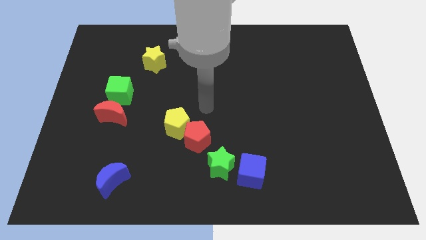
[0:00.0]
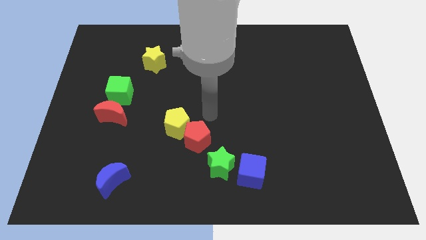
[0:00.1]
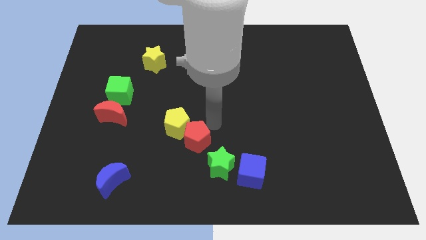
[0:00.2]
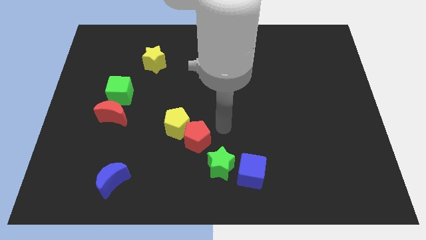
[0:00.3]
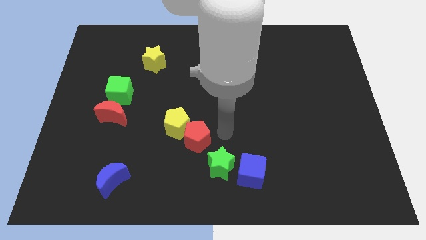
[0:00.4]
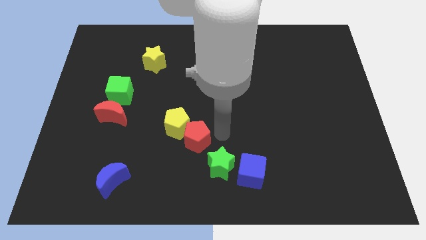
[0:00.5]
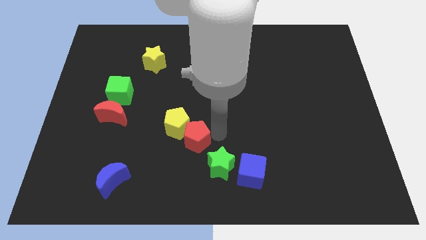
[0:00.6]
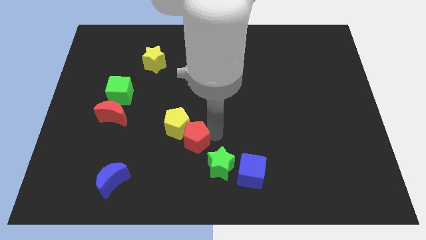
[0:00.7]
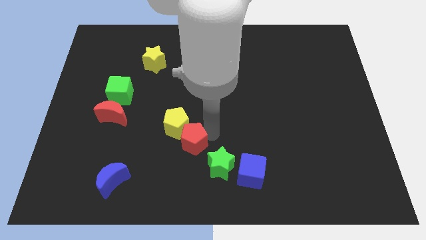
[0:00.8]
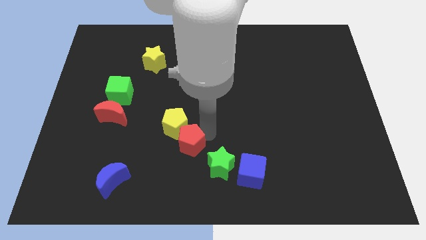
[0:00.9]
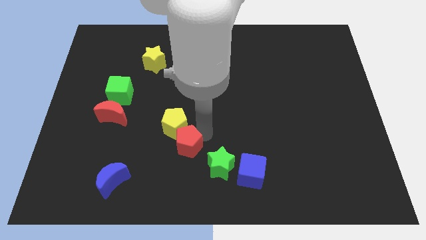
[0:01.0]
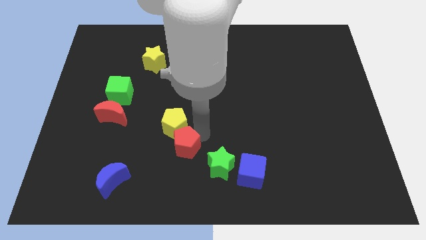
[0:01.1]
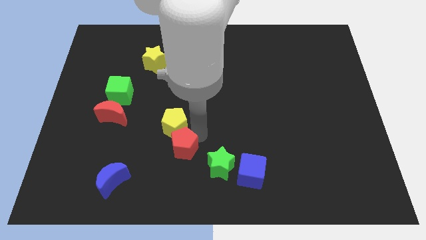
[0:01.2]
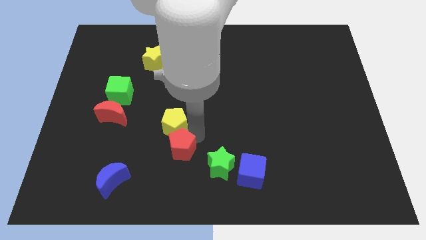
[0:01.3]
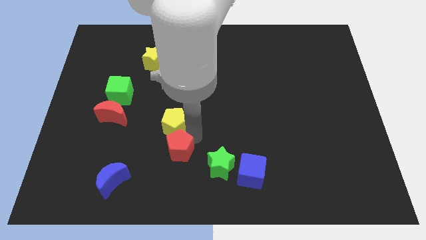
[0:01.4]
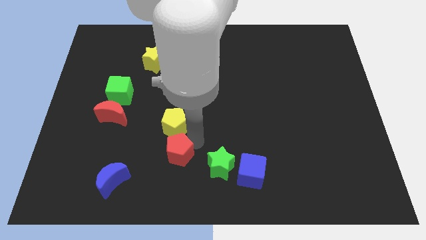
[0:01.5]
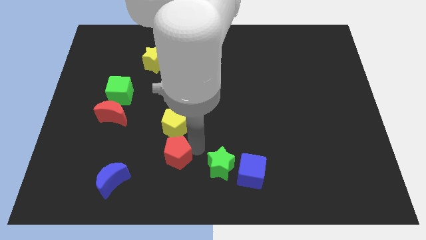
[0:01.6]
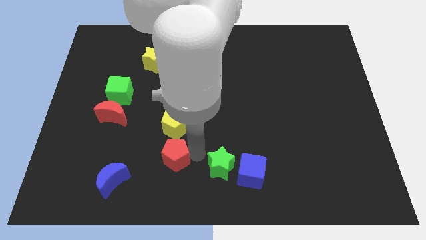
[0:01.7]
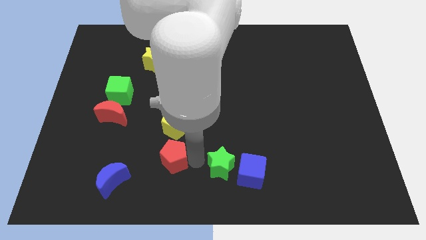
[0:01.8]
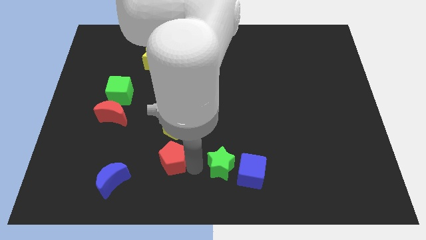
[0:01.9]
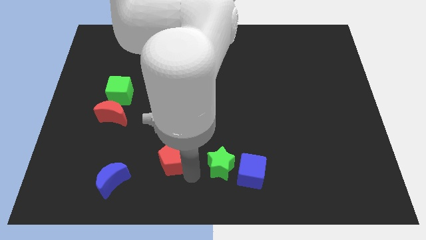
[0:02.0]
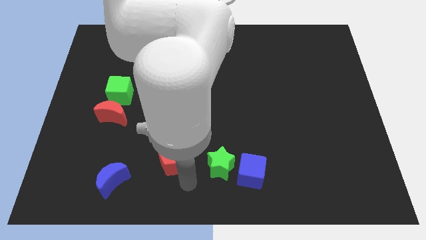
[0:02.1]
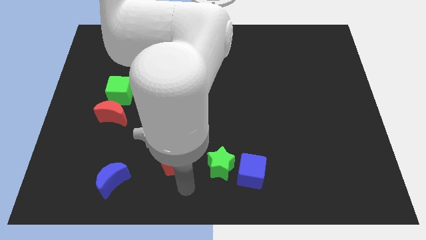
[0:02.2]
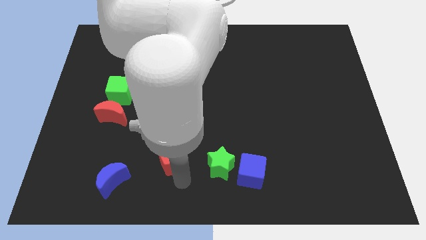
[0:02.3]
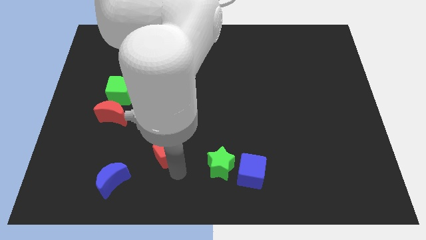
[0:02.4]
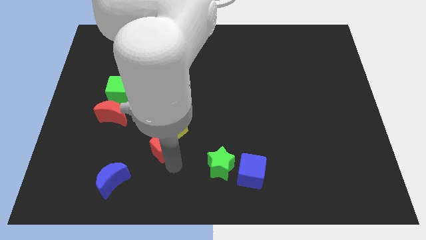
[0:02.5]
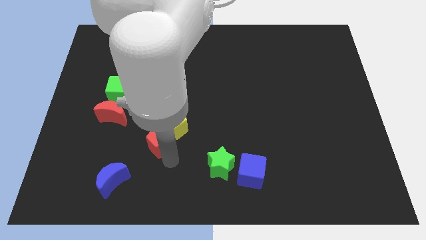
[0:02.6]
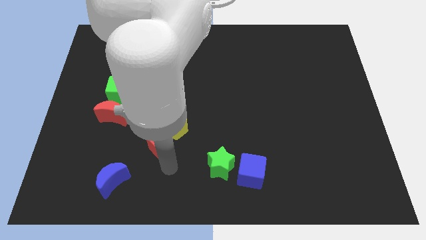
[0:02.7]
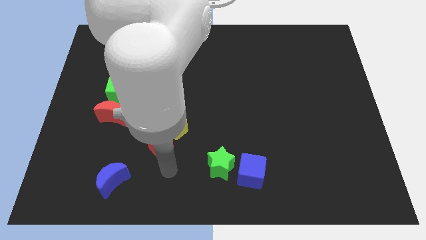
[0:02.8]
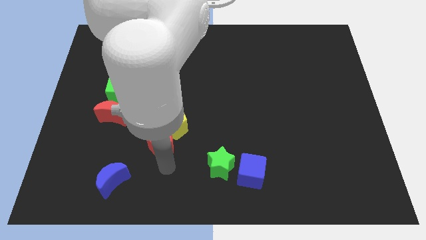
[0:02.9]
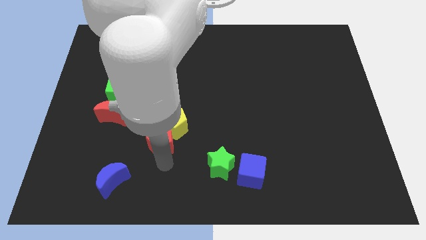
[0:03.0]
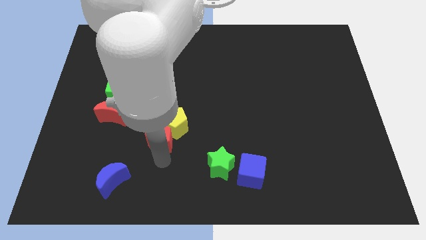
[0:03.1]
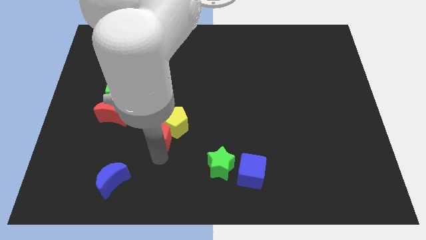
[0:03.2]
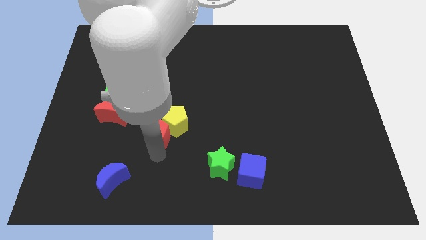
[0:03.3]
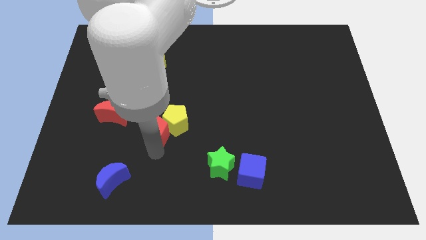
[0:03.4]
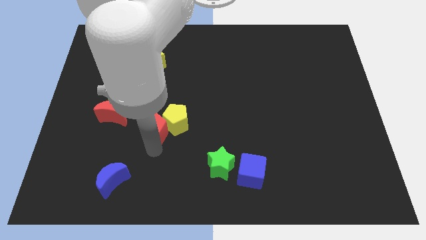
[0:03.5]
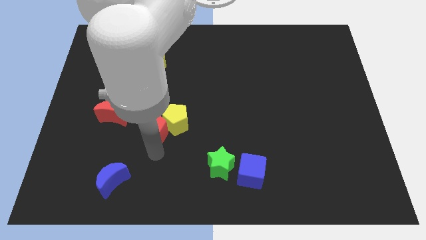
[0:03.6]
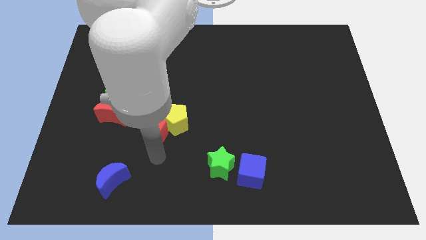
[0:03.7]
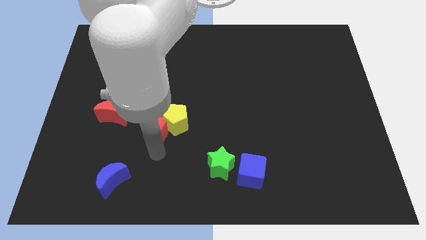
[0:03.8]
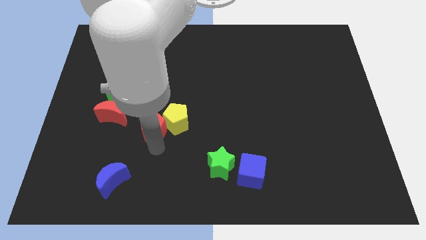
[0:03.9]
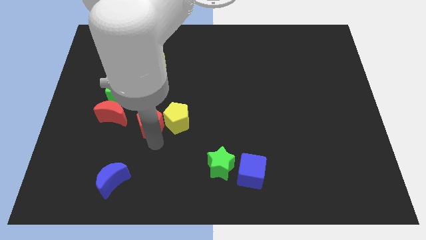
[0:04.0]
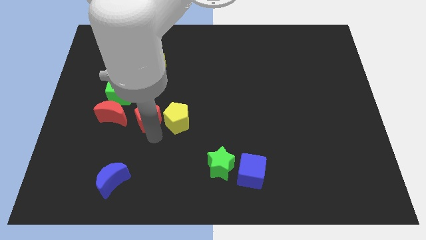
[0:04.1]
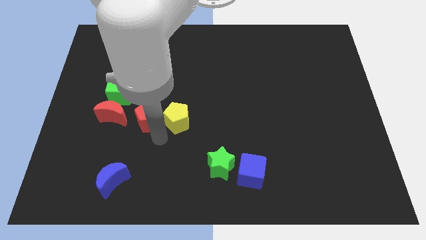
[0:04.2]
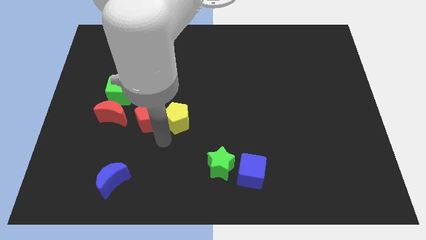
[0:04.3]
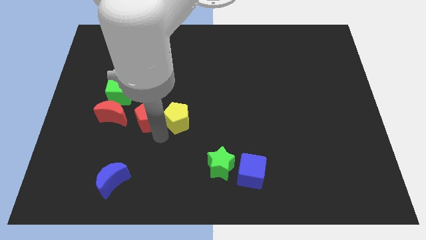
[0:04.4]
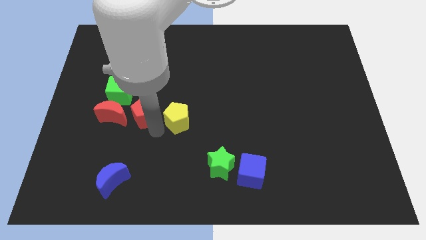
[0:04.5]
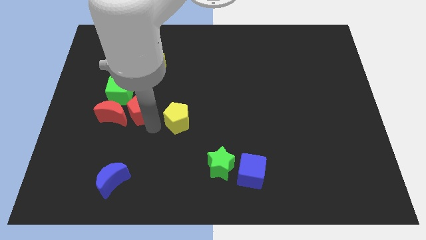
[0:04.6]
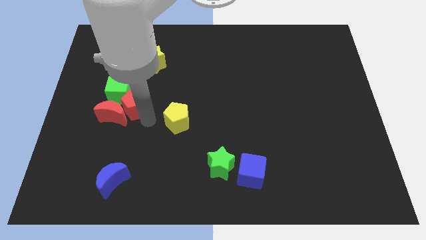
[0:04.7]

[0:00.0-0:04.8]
move the red pentagon next to the green cube

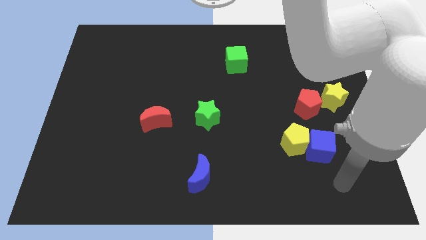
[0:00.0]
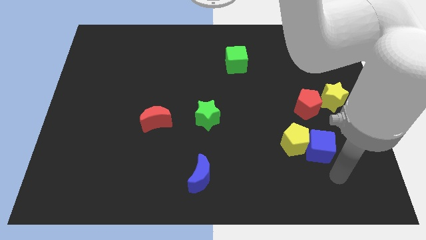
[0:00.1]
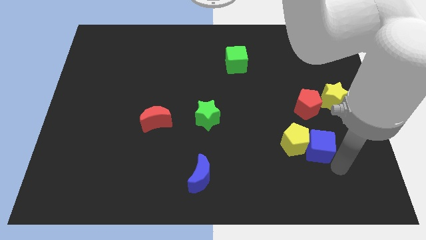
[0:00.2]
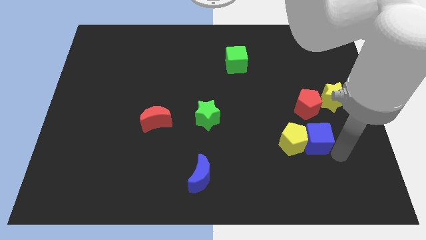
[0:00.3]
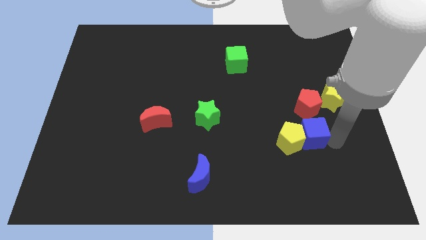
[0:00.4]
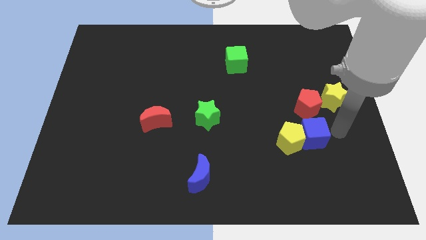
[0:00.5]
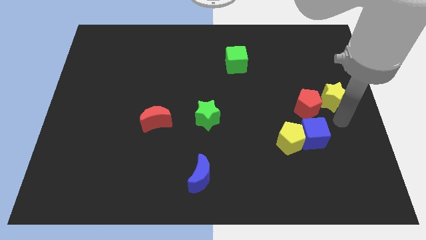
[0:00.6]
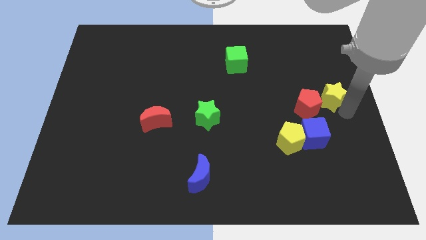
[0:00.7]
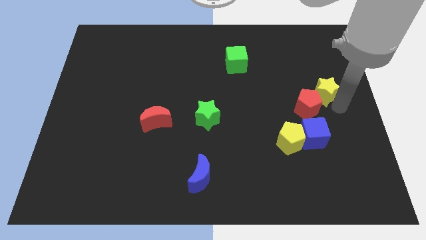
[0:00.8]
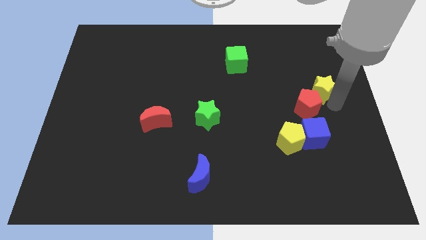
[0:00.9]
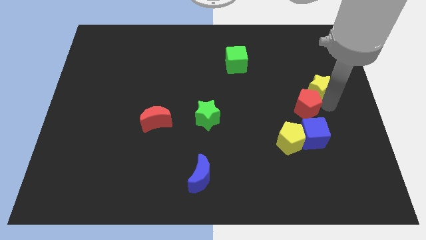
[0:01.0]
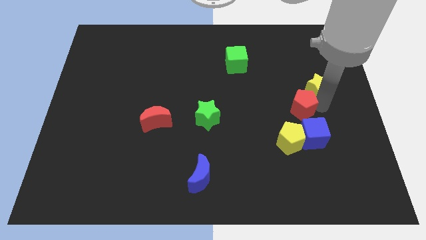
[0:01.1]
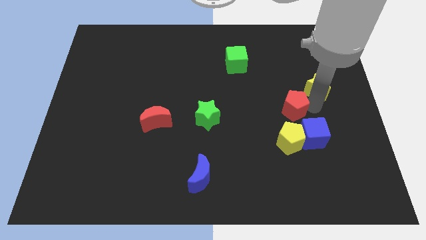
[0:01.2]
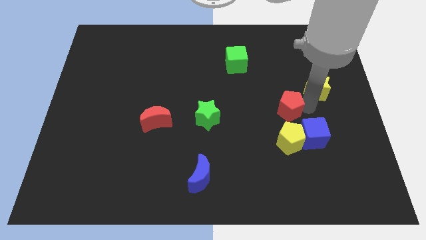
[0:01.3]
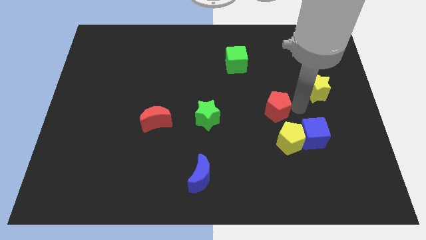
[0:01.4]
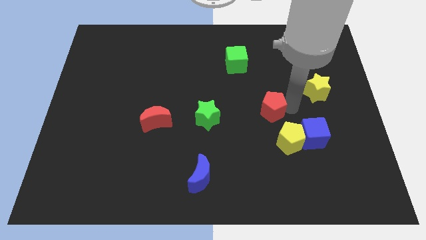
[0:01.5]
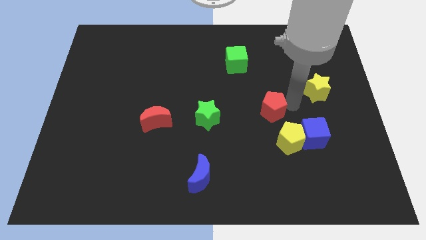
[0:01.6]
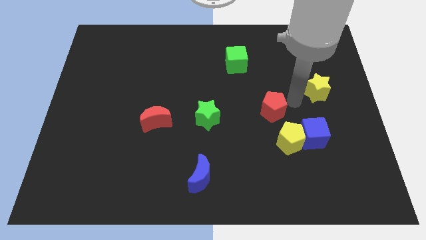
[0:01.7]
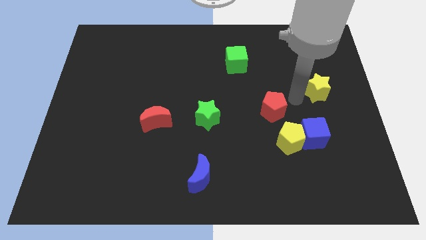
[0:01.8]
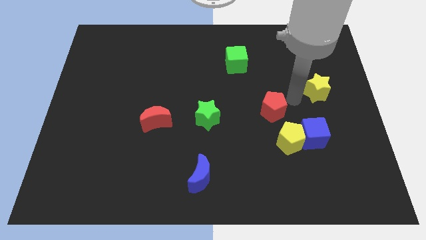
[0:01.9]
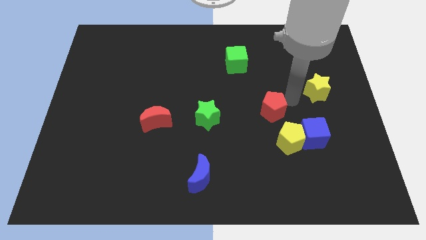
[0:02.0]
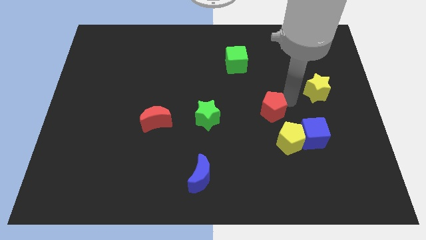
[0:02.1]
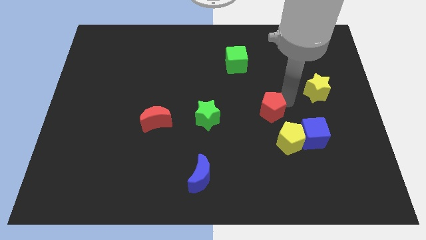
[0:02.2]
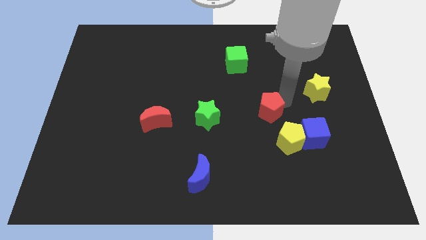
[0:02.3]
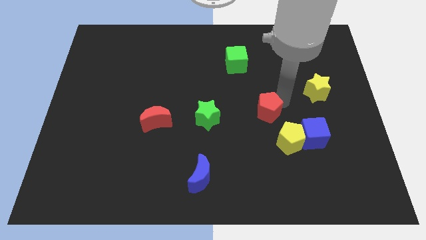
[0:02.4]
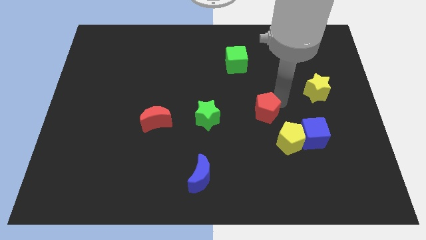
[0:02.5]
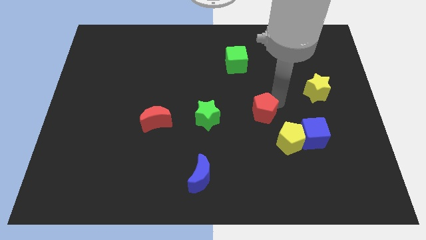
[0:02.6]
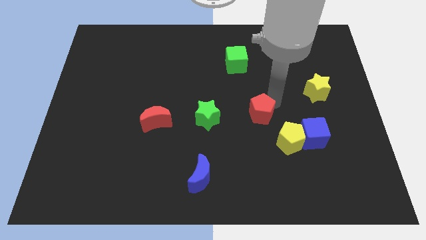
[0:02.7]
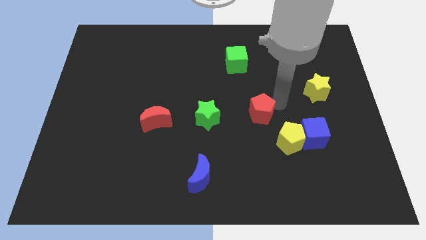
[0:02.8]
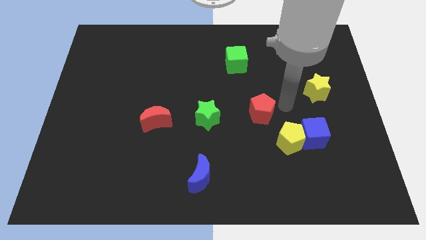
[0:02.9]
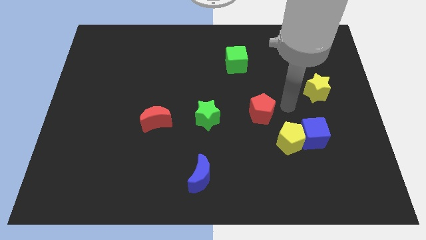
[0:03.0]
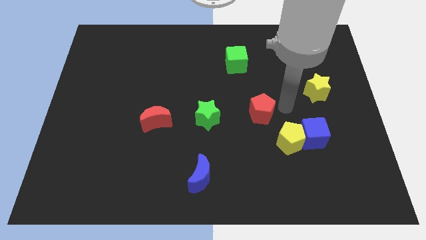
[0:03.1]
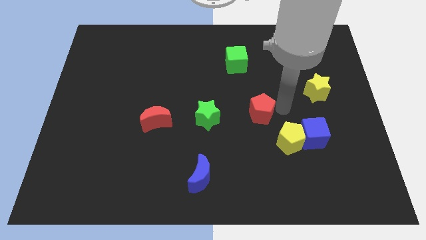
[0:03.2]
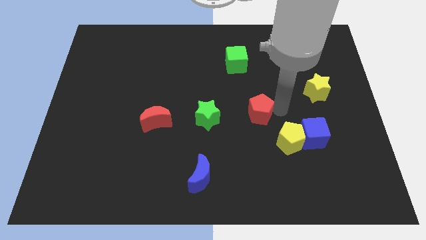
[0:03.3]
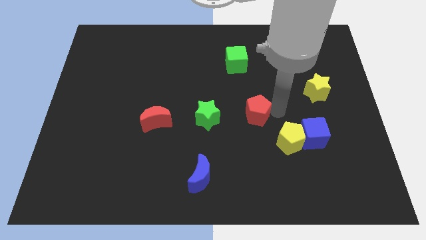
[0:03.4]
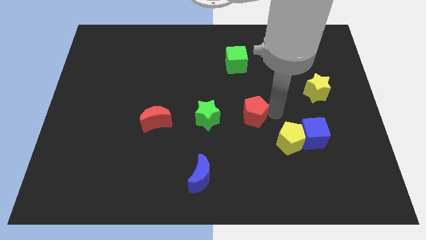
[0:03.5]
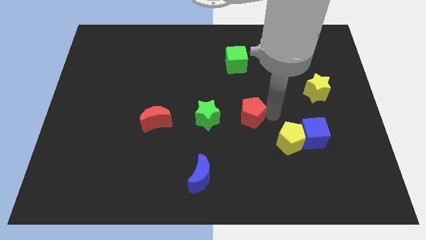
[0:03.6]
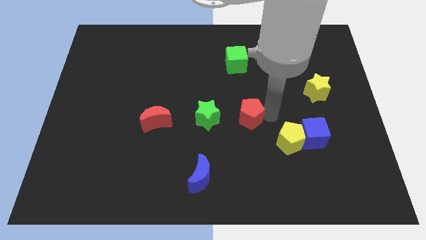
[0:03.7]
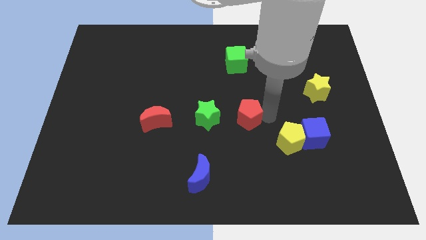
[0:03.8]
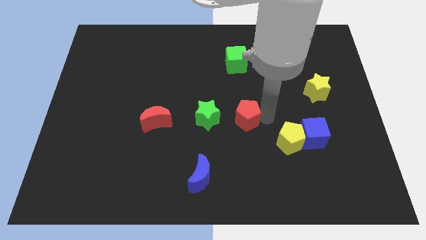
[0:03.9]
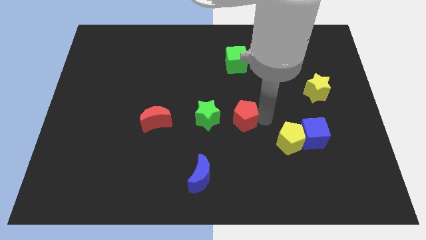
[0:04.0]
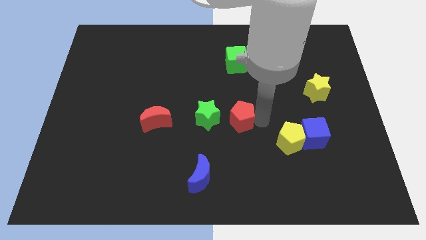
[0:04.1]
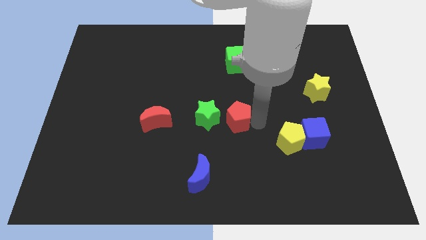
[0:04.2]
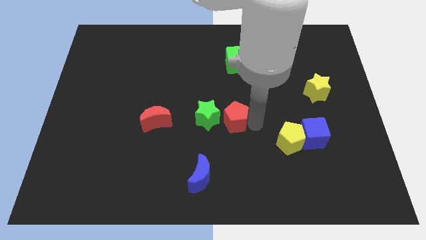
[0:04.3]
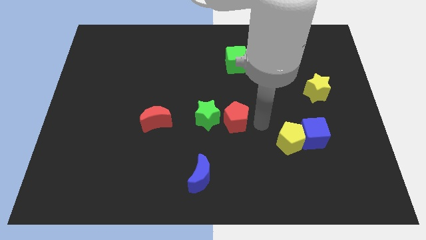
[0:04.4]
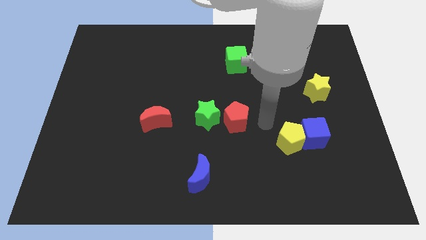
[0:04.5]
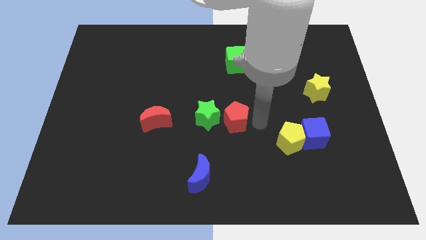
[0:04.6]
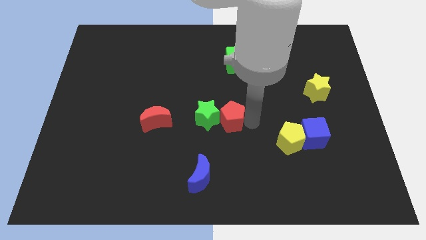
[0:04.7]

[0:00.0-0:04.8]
push the red pentagon towards the green star
